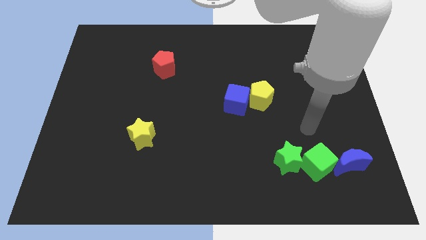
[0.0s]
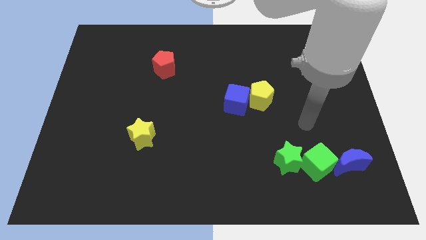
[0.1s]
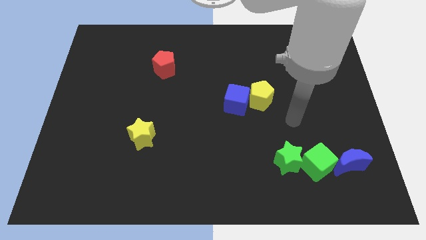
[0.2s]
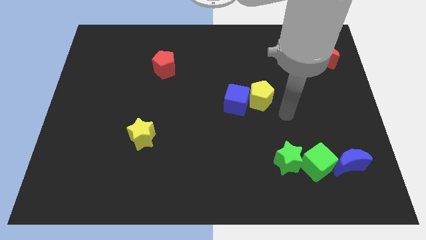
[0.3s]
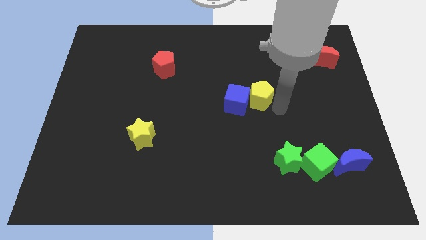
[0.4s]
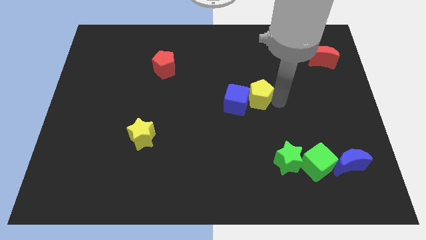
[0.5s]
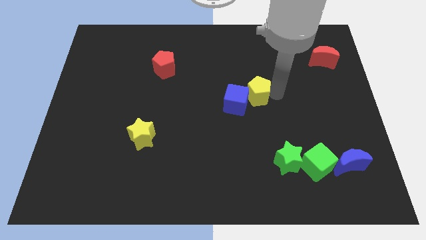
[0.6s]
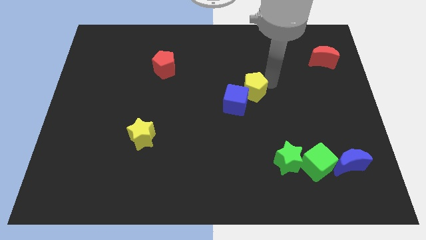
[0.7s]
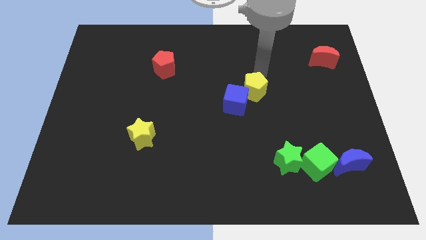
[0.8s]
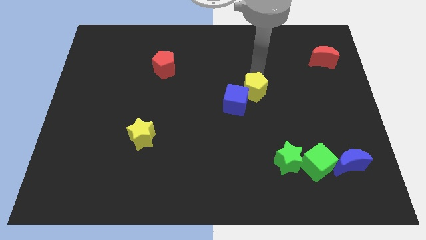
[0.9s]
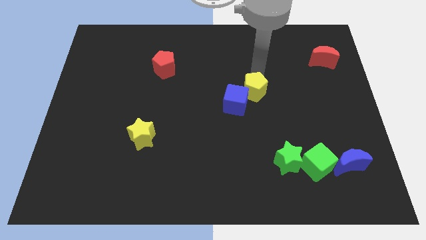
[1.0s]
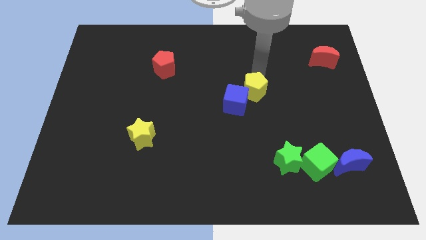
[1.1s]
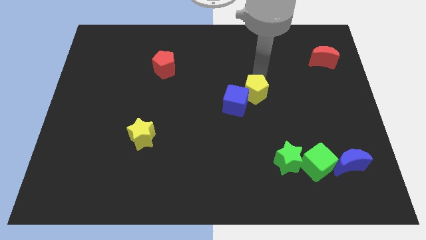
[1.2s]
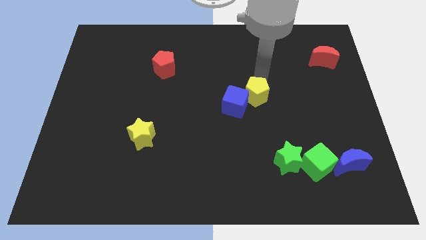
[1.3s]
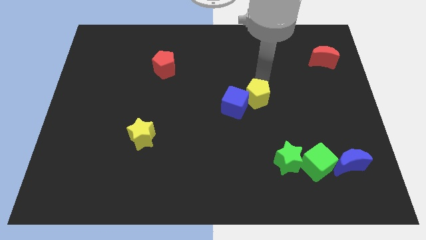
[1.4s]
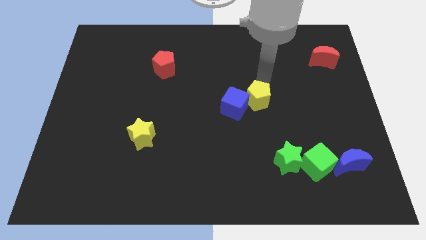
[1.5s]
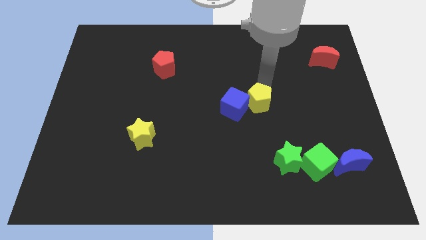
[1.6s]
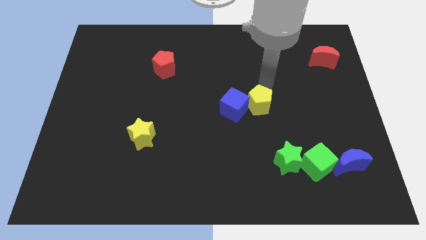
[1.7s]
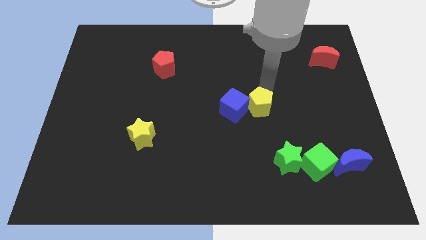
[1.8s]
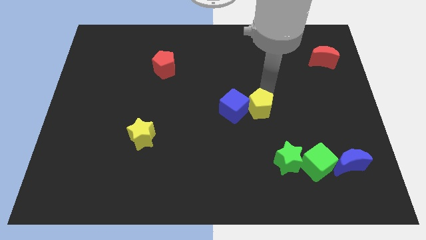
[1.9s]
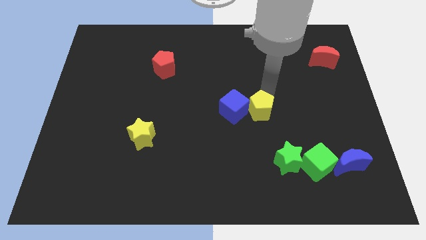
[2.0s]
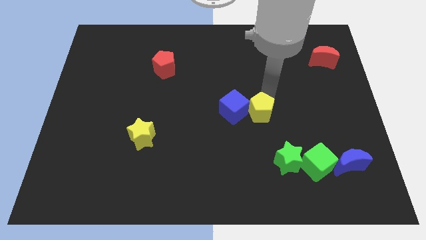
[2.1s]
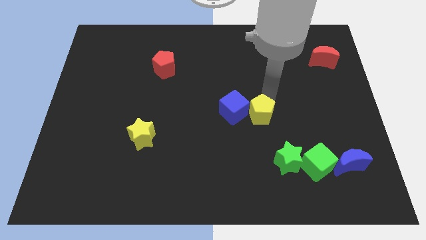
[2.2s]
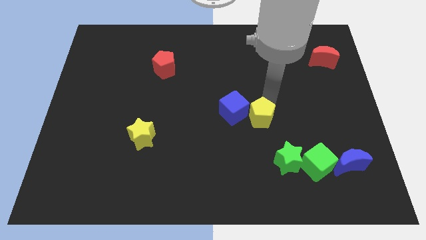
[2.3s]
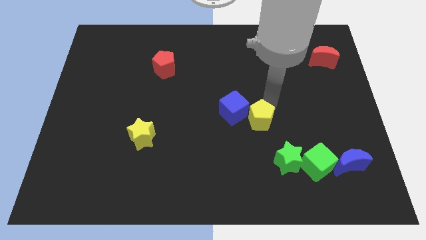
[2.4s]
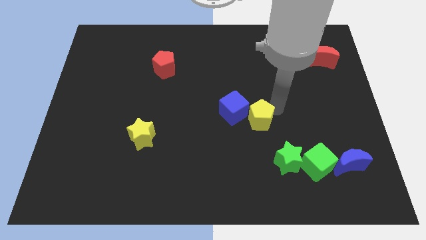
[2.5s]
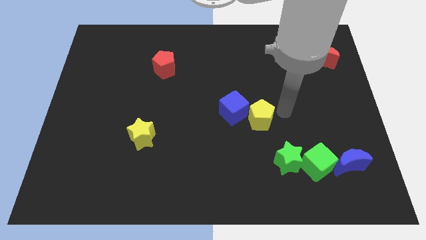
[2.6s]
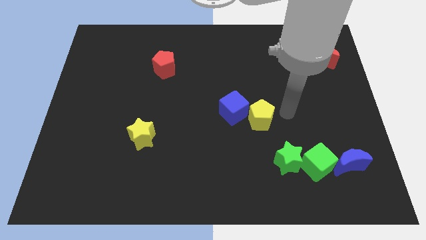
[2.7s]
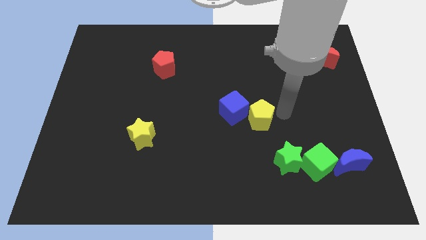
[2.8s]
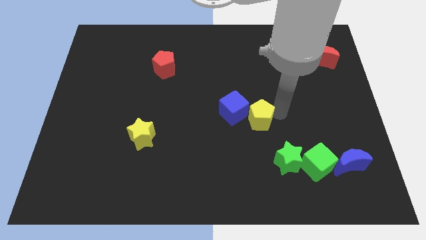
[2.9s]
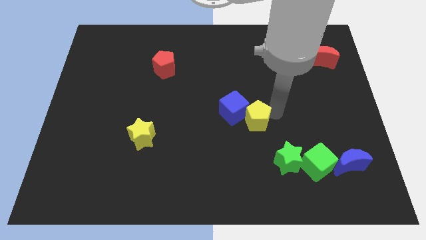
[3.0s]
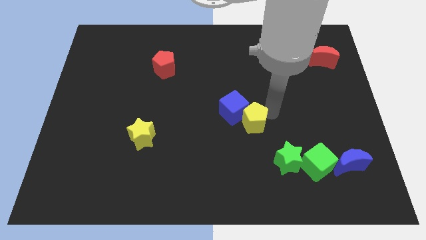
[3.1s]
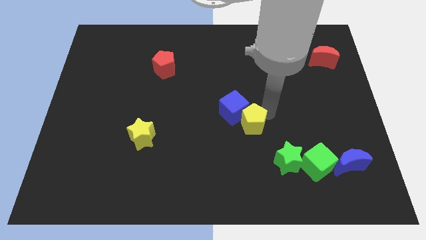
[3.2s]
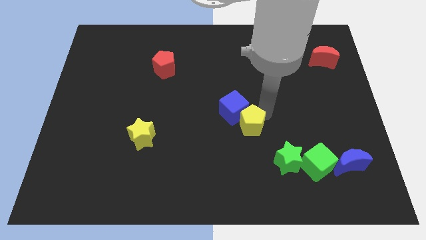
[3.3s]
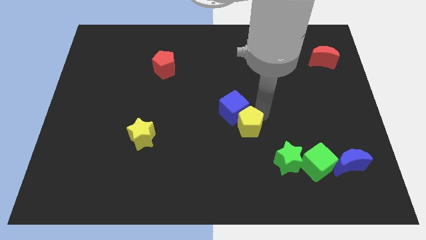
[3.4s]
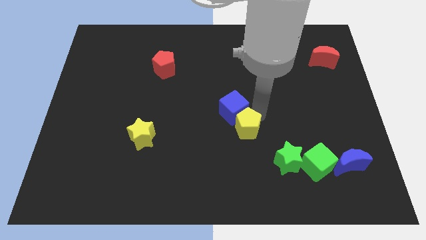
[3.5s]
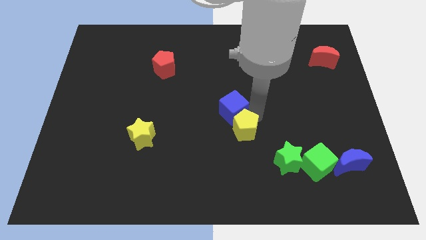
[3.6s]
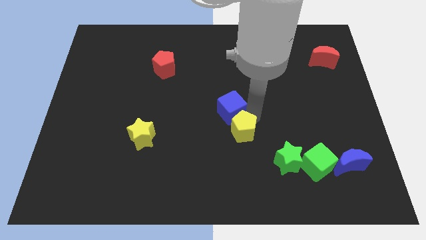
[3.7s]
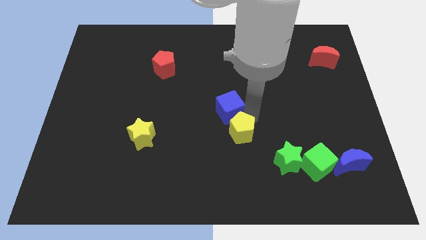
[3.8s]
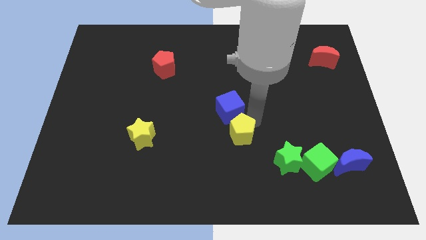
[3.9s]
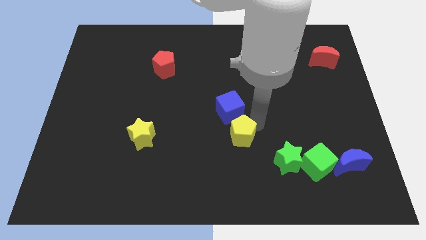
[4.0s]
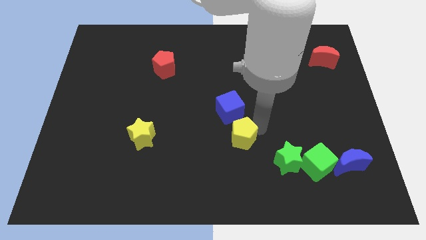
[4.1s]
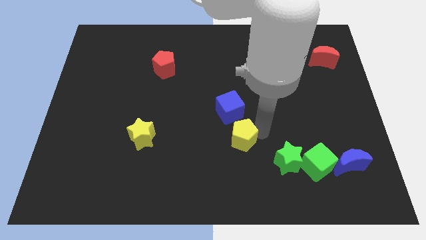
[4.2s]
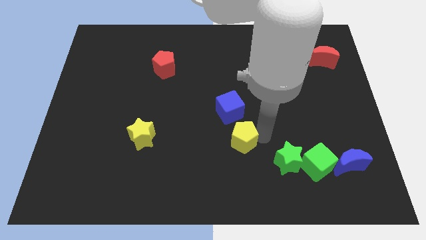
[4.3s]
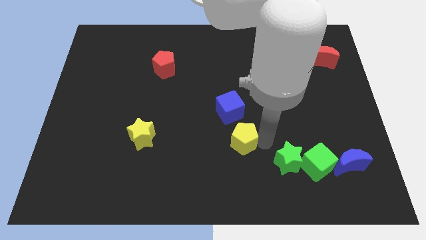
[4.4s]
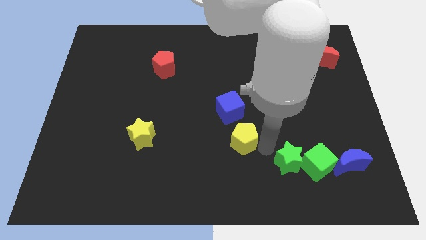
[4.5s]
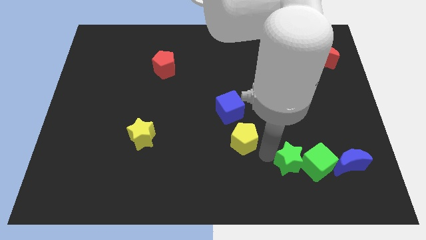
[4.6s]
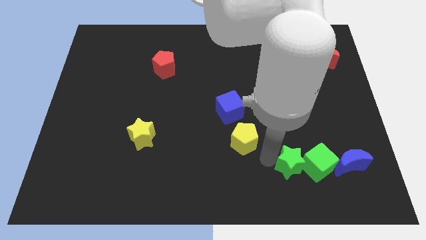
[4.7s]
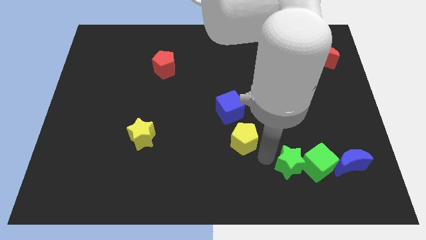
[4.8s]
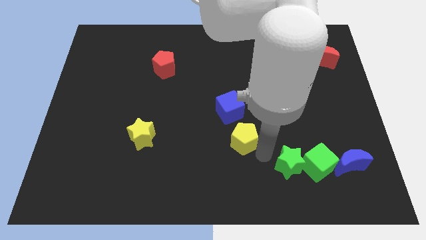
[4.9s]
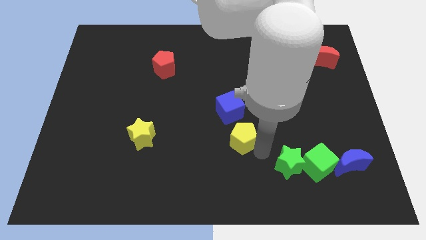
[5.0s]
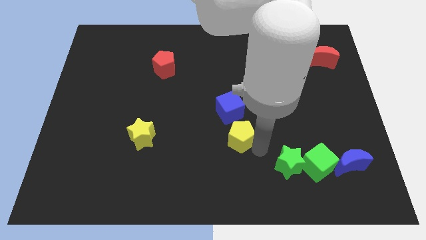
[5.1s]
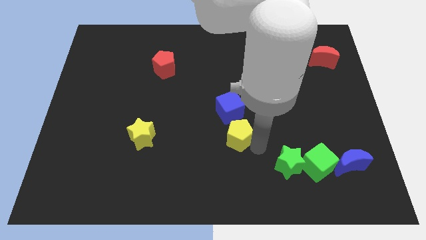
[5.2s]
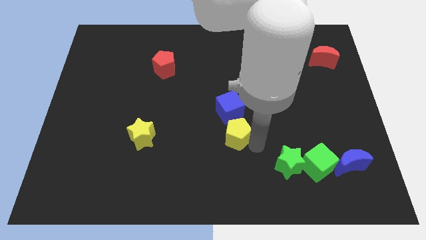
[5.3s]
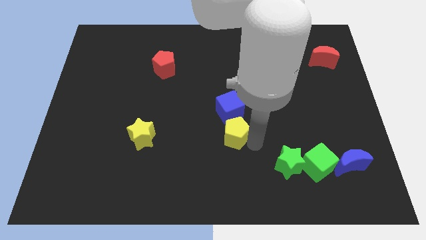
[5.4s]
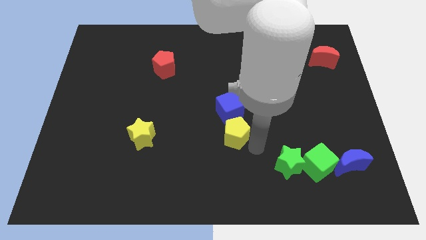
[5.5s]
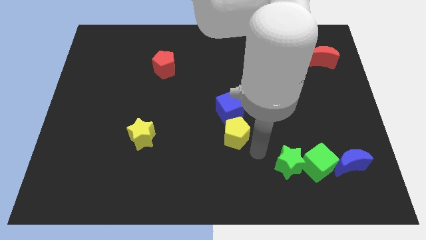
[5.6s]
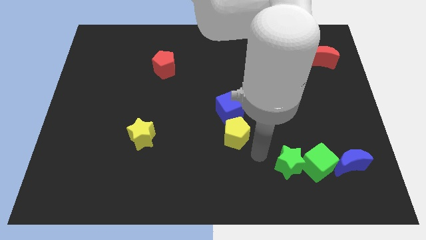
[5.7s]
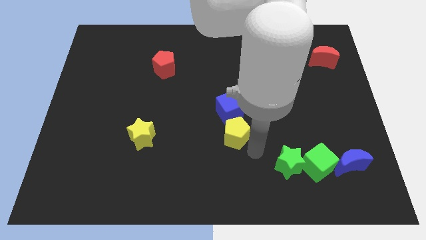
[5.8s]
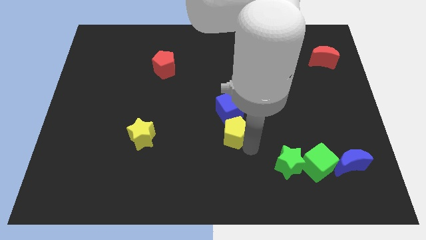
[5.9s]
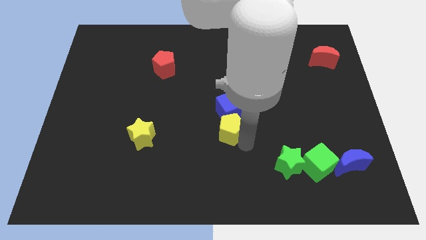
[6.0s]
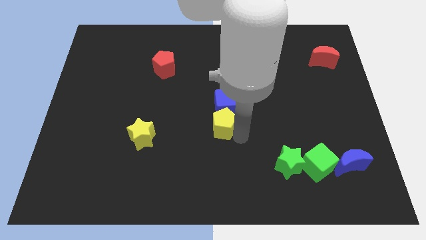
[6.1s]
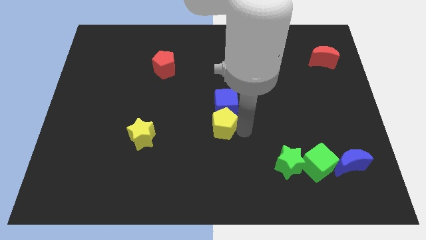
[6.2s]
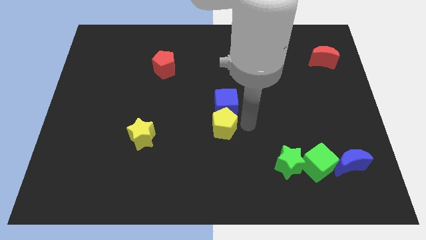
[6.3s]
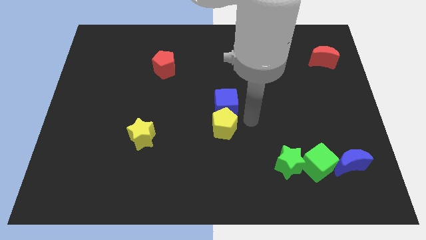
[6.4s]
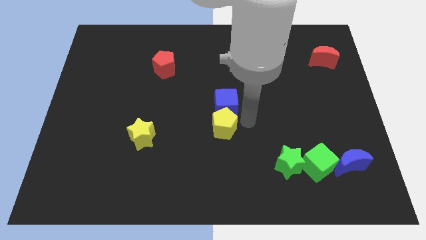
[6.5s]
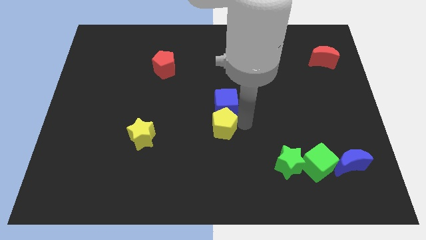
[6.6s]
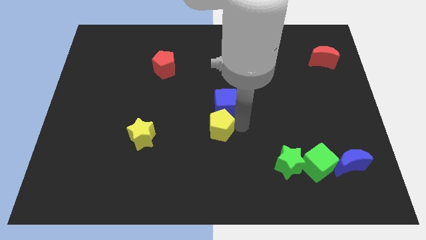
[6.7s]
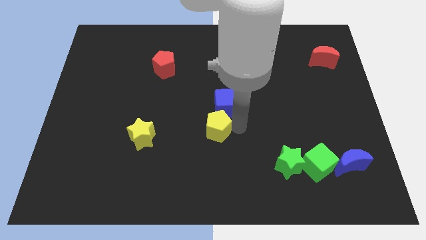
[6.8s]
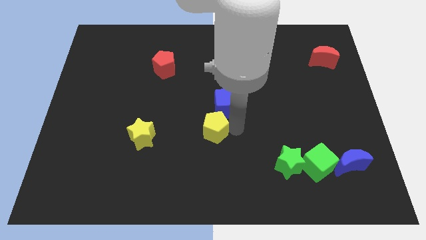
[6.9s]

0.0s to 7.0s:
put the yellow pentagon right of the yellow star

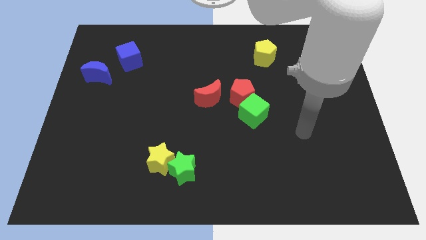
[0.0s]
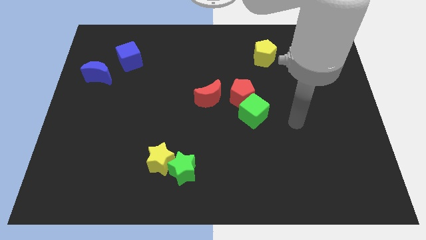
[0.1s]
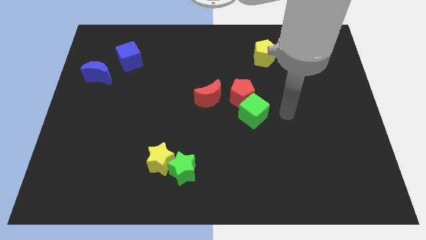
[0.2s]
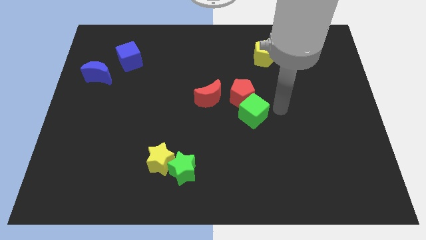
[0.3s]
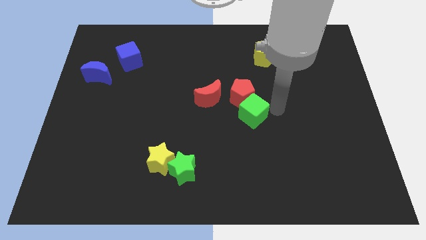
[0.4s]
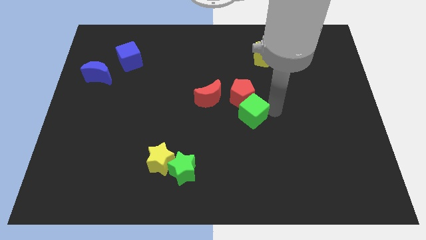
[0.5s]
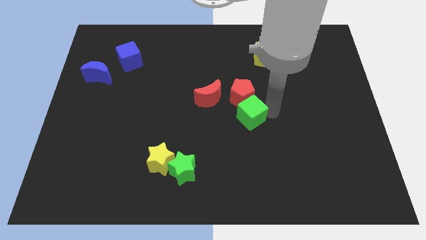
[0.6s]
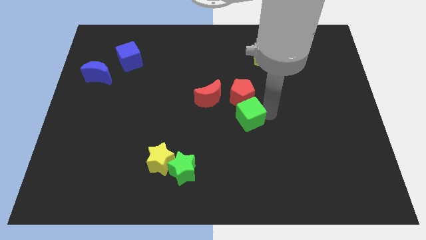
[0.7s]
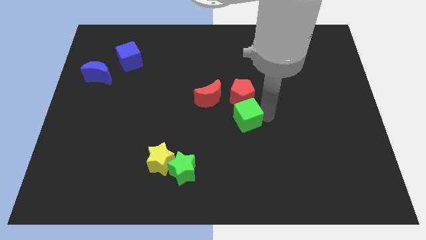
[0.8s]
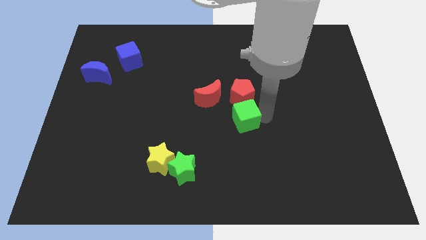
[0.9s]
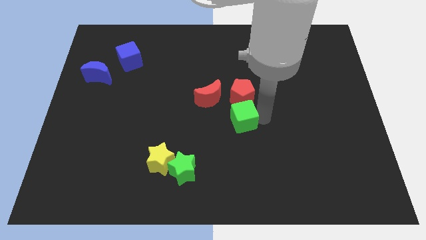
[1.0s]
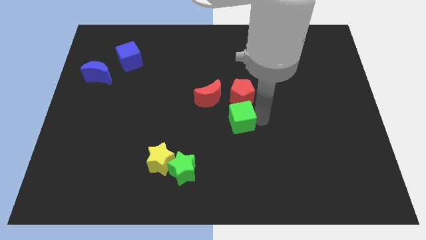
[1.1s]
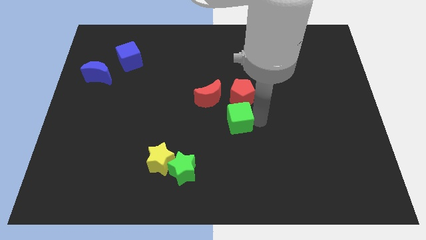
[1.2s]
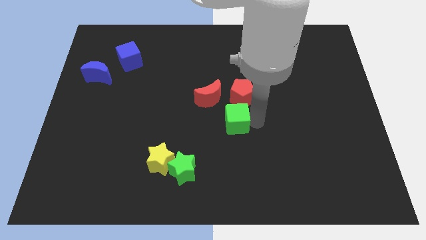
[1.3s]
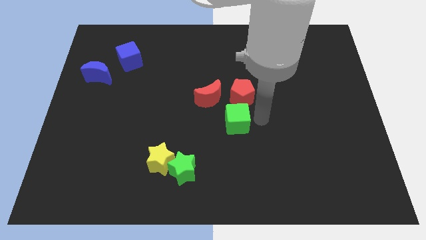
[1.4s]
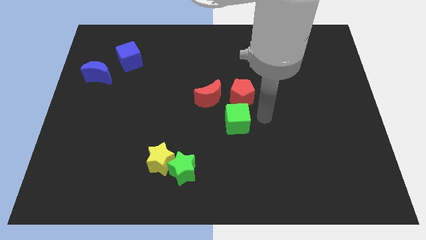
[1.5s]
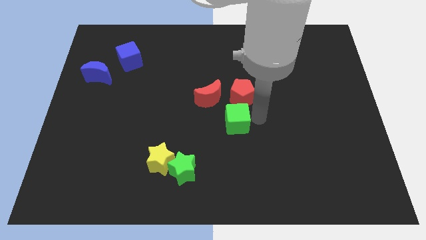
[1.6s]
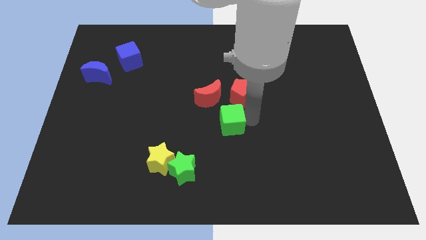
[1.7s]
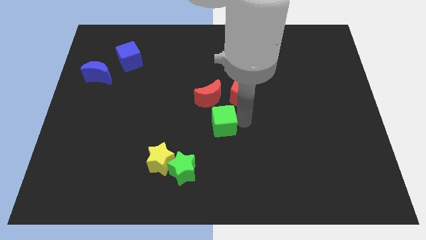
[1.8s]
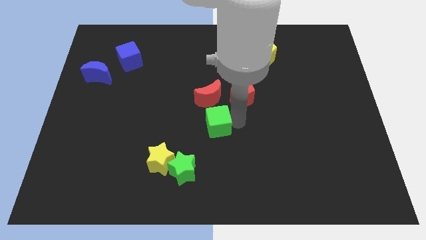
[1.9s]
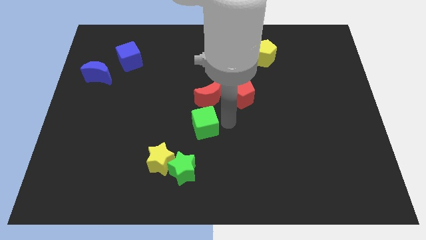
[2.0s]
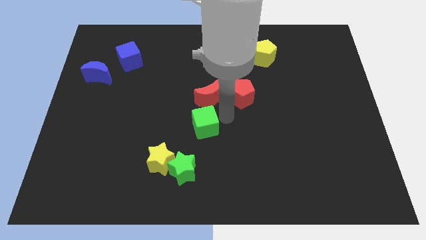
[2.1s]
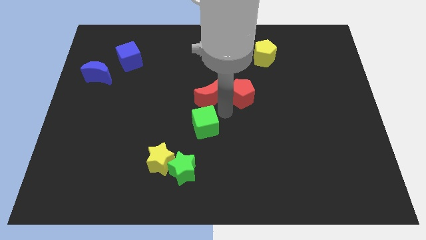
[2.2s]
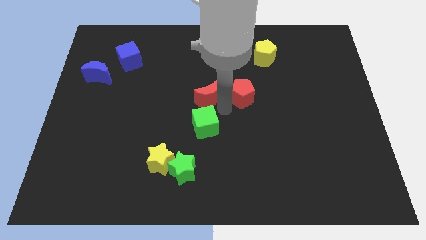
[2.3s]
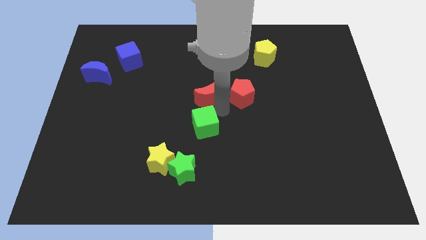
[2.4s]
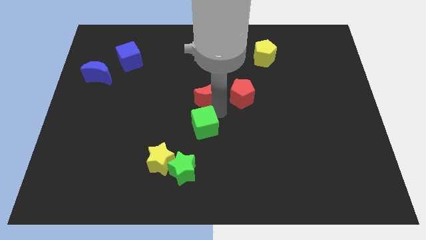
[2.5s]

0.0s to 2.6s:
slide the green cube to the top right side of the yellow star
